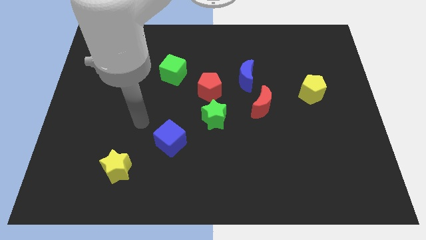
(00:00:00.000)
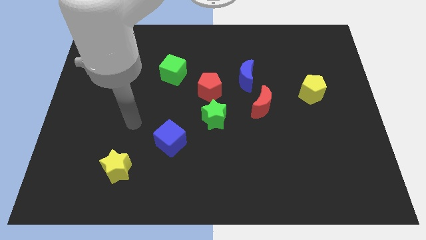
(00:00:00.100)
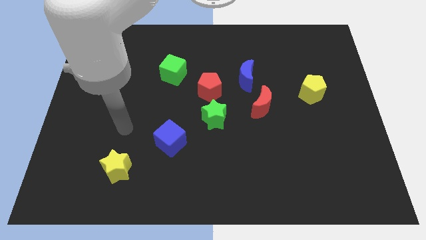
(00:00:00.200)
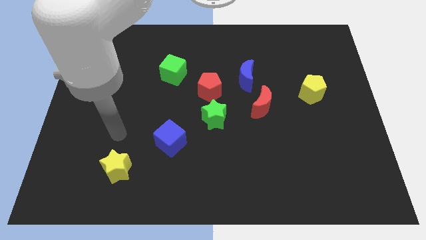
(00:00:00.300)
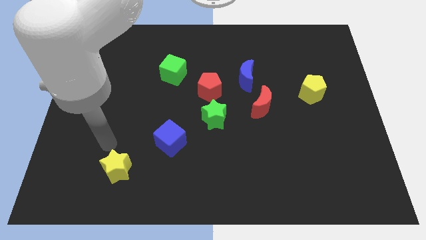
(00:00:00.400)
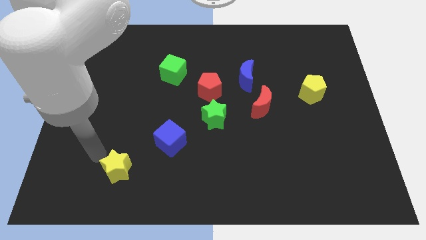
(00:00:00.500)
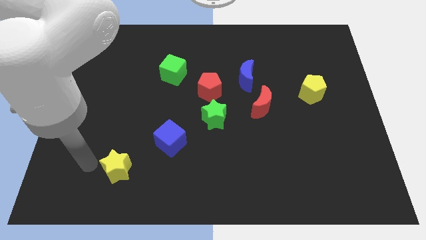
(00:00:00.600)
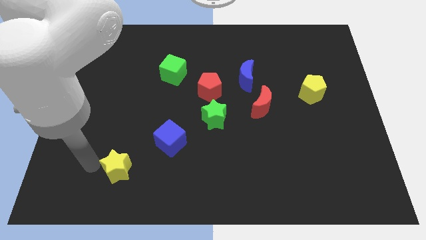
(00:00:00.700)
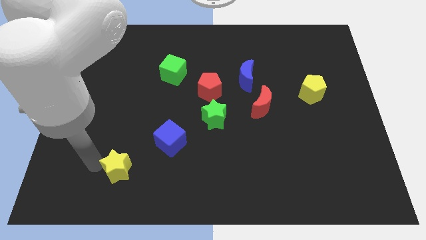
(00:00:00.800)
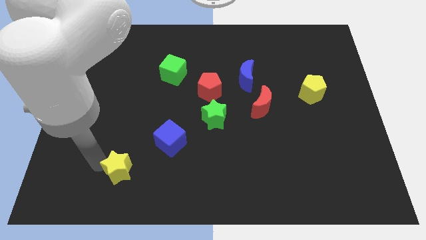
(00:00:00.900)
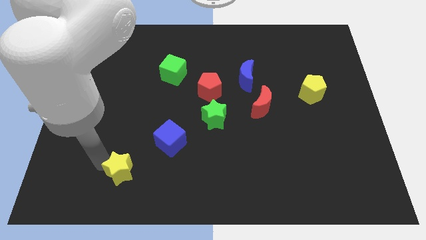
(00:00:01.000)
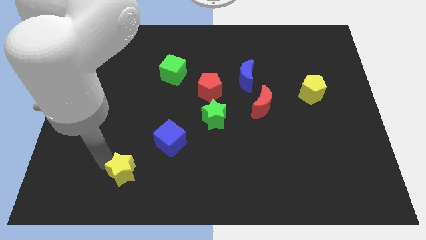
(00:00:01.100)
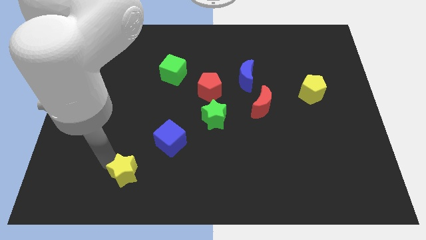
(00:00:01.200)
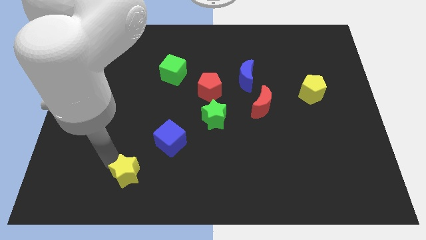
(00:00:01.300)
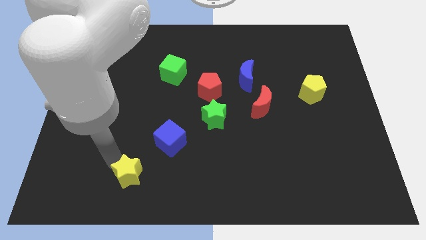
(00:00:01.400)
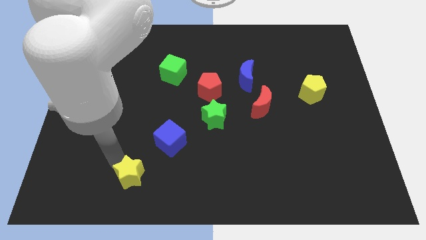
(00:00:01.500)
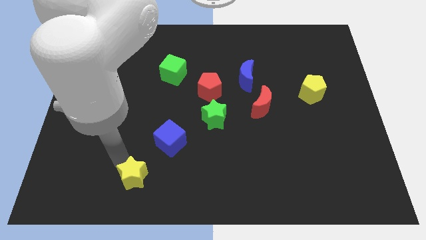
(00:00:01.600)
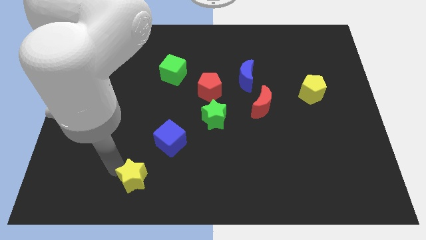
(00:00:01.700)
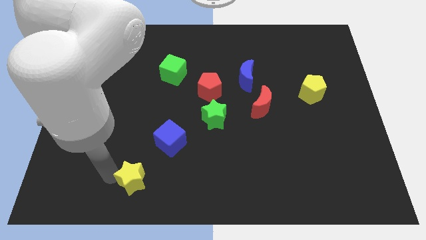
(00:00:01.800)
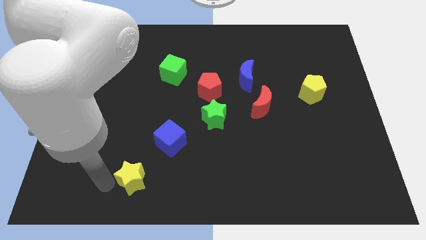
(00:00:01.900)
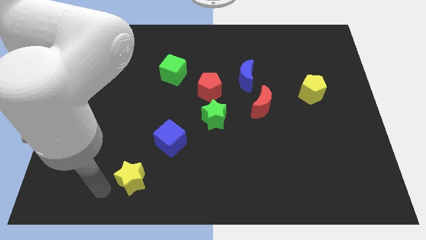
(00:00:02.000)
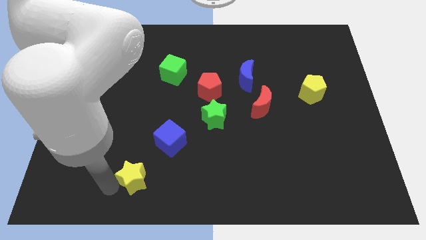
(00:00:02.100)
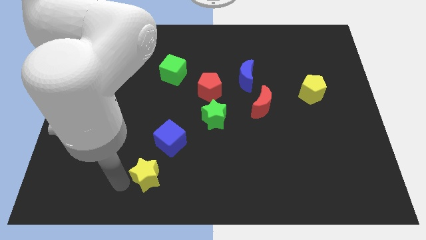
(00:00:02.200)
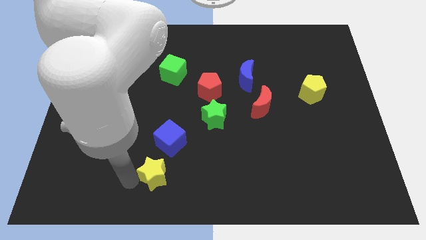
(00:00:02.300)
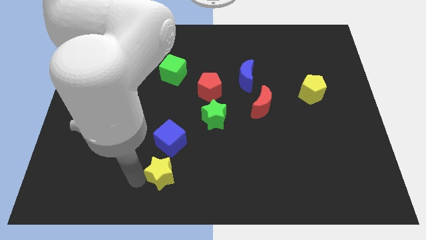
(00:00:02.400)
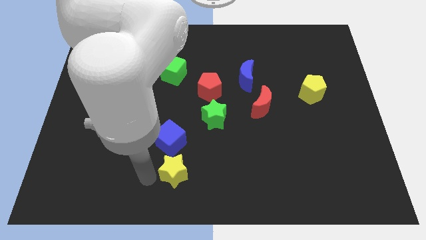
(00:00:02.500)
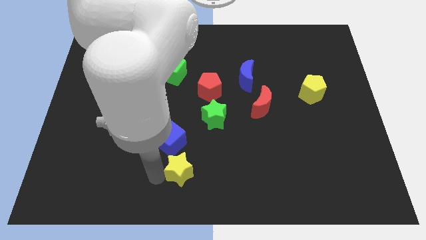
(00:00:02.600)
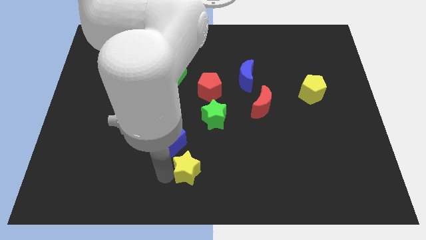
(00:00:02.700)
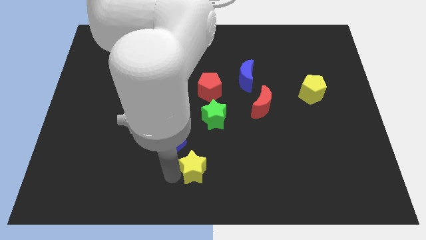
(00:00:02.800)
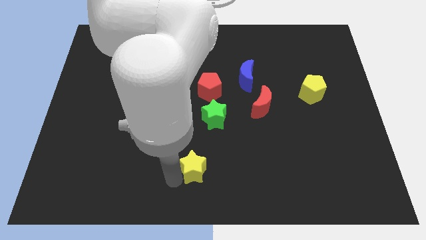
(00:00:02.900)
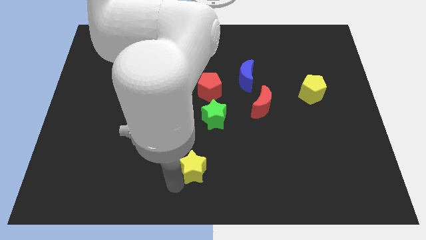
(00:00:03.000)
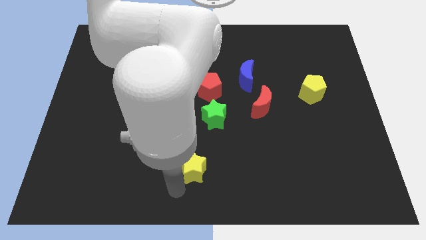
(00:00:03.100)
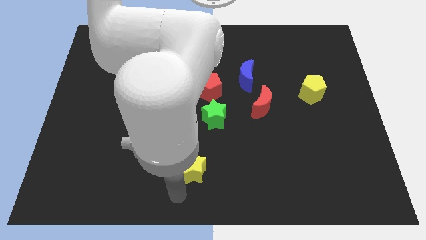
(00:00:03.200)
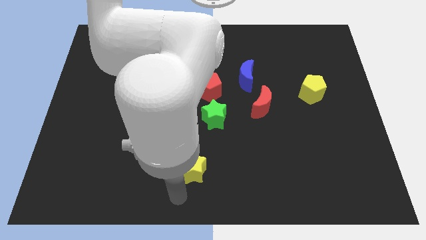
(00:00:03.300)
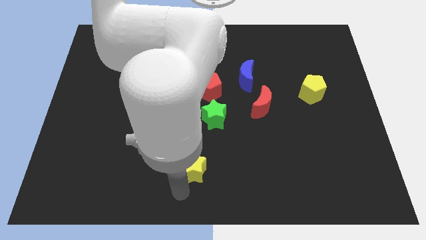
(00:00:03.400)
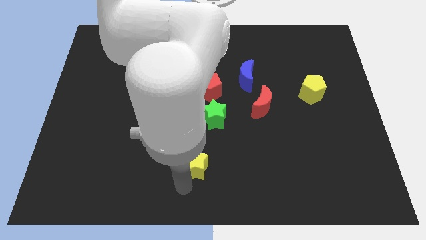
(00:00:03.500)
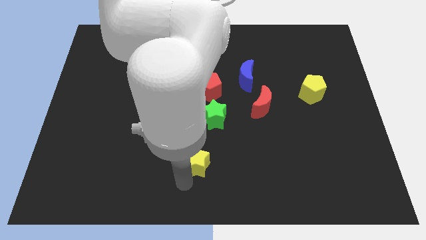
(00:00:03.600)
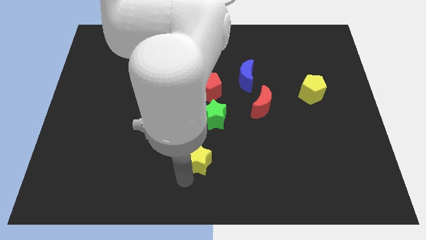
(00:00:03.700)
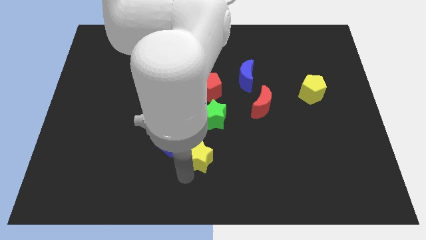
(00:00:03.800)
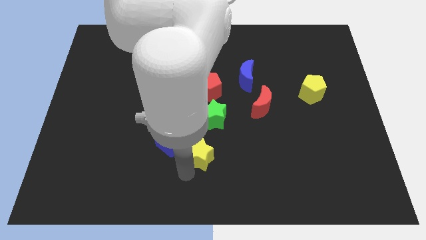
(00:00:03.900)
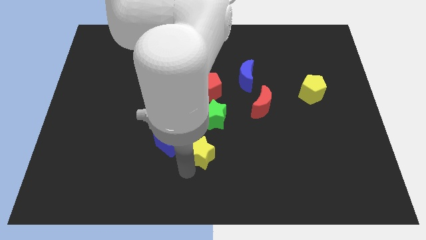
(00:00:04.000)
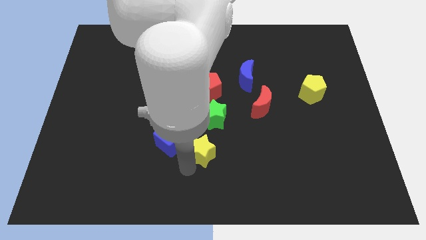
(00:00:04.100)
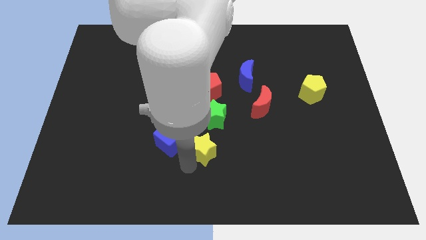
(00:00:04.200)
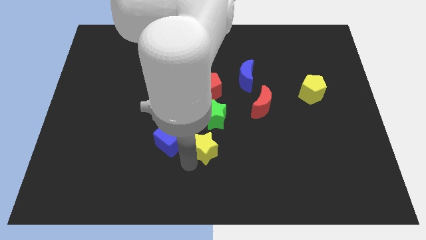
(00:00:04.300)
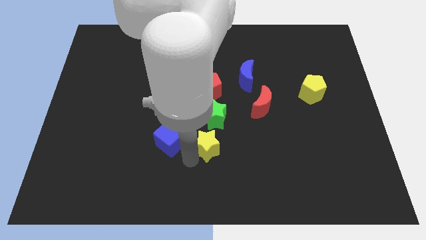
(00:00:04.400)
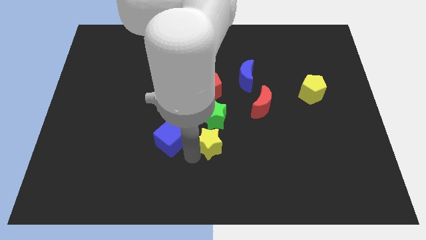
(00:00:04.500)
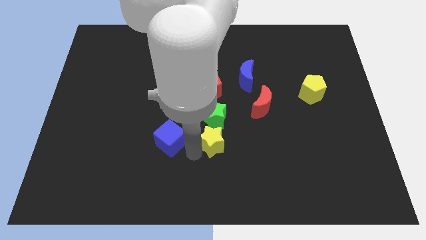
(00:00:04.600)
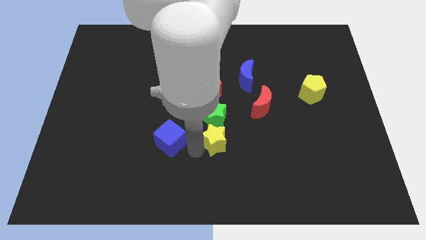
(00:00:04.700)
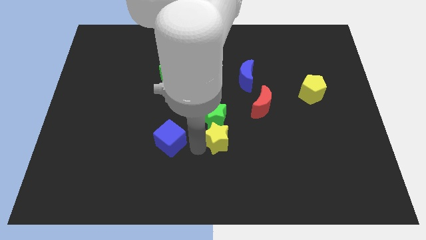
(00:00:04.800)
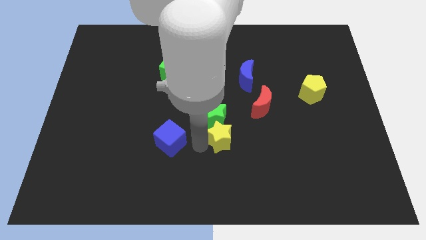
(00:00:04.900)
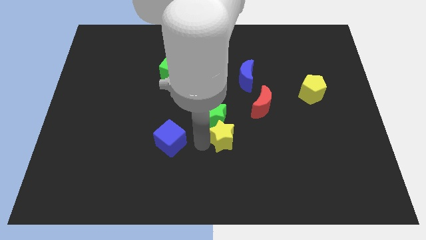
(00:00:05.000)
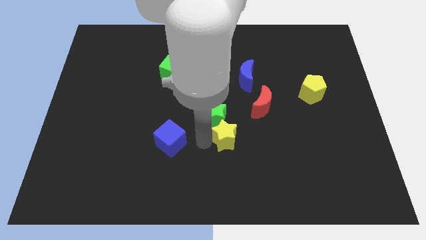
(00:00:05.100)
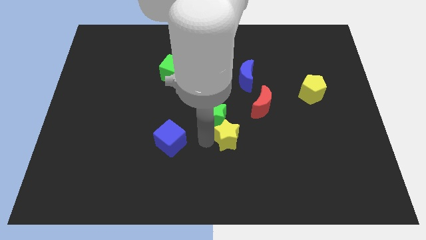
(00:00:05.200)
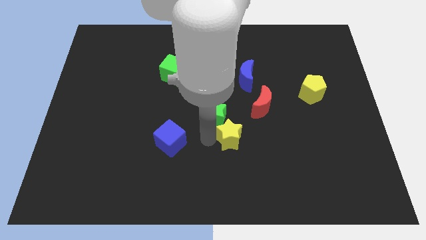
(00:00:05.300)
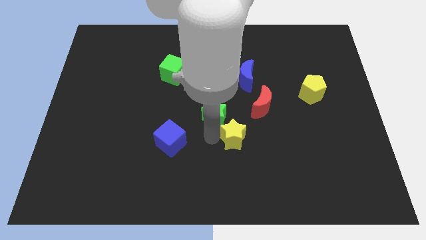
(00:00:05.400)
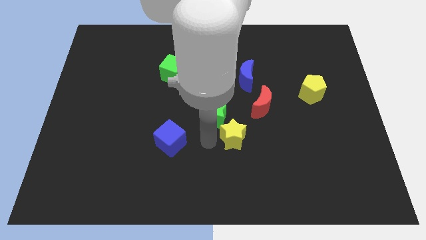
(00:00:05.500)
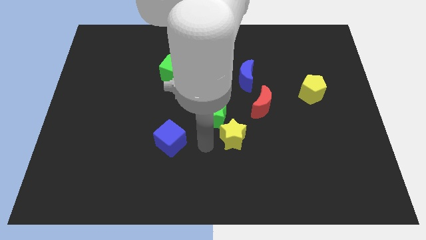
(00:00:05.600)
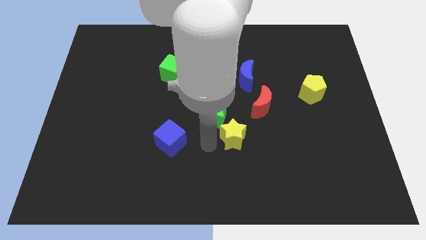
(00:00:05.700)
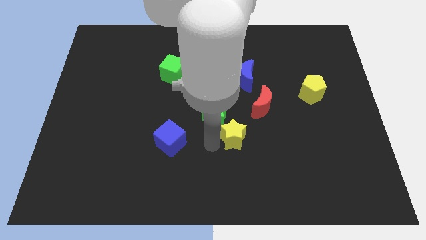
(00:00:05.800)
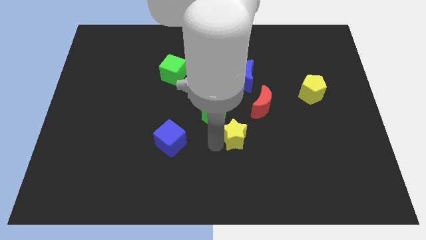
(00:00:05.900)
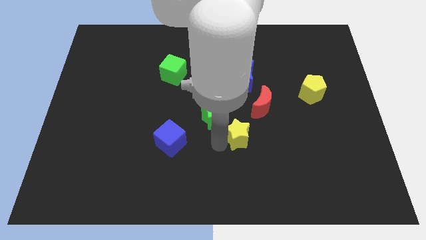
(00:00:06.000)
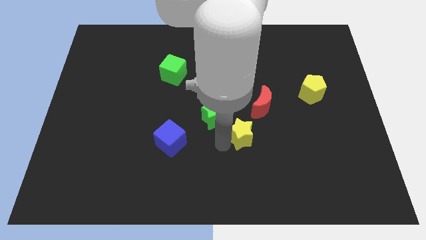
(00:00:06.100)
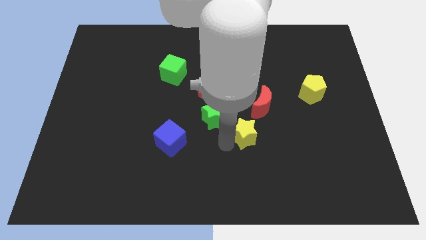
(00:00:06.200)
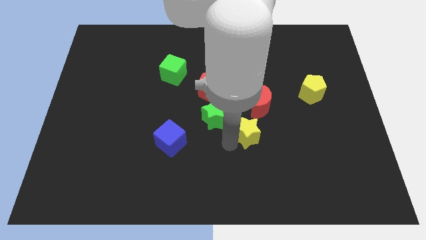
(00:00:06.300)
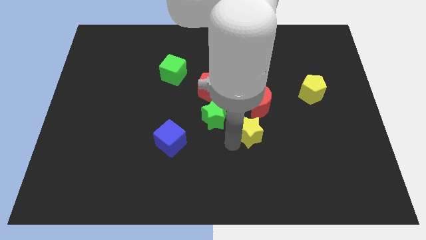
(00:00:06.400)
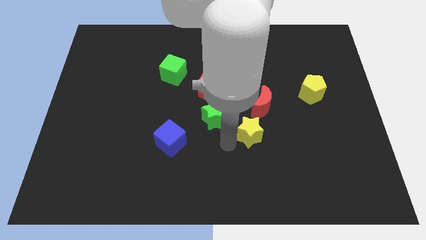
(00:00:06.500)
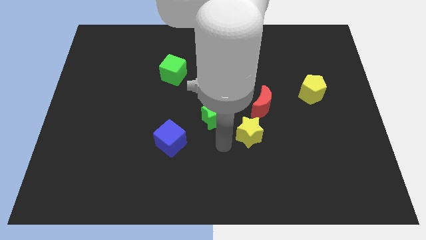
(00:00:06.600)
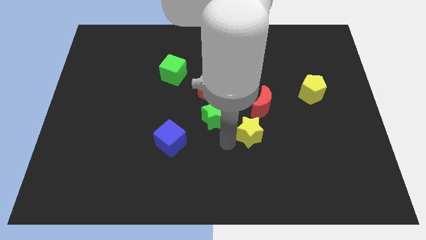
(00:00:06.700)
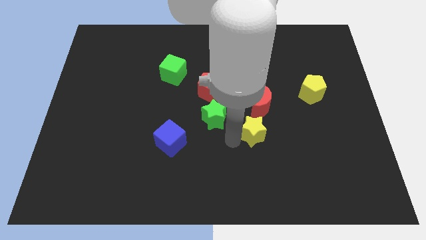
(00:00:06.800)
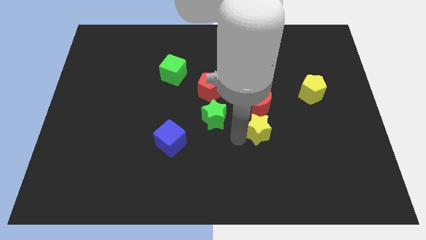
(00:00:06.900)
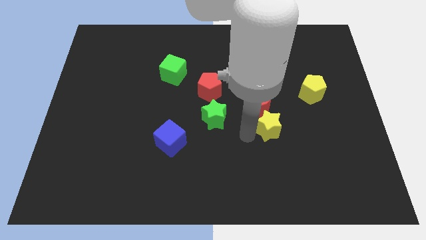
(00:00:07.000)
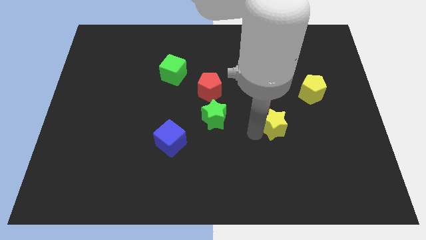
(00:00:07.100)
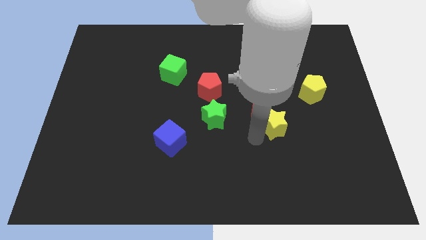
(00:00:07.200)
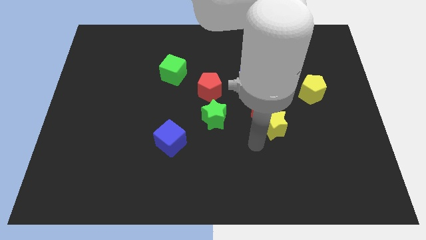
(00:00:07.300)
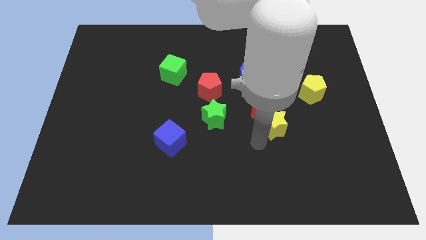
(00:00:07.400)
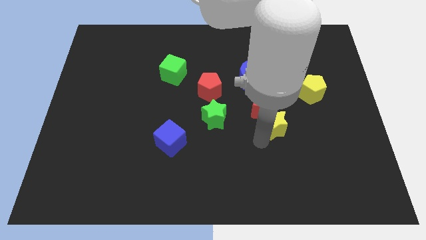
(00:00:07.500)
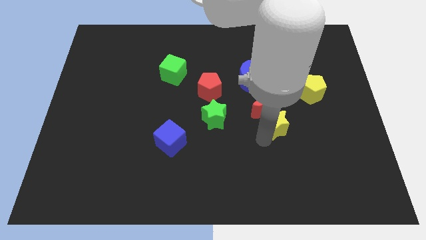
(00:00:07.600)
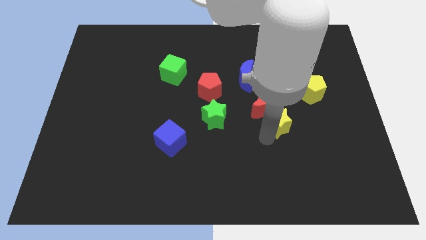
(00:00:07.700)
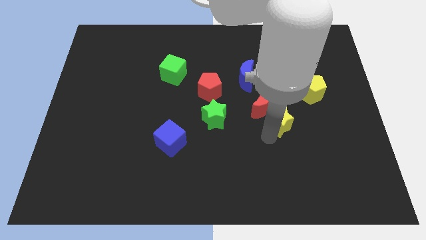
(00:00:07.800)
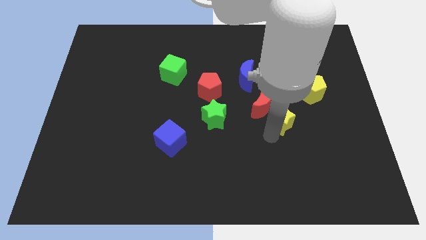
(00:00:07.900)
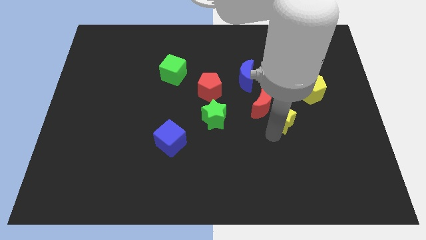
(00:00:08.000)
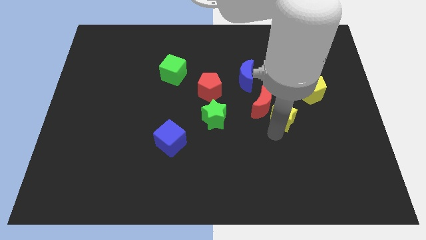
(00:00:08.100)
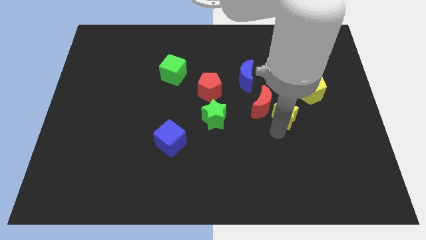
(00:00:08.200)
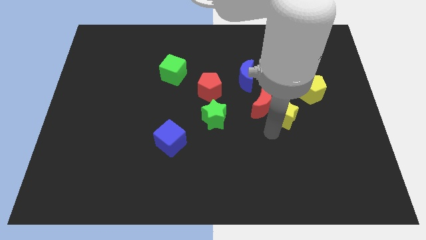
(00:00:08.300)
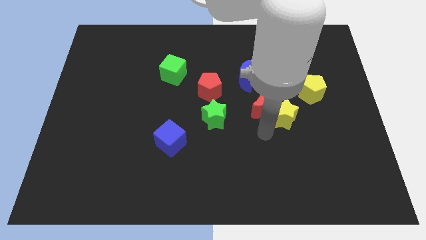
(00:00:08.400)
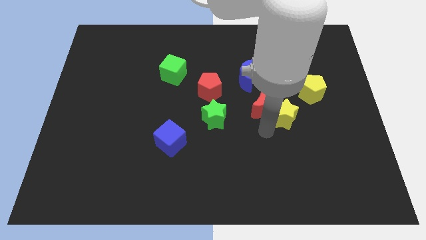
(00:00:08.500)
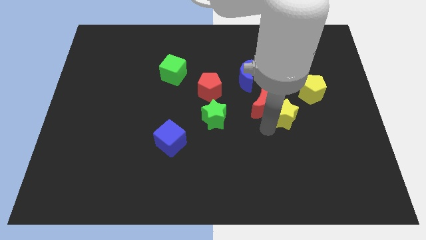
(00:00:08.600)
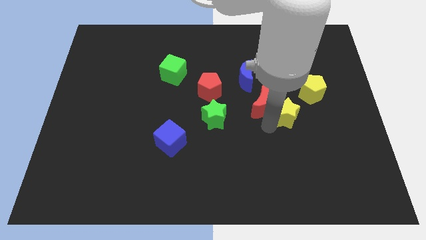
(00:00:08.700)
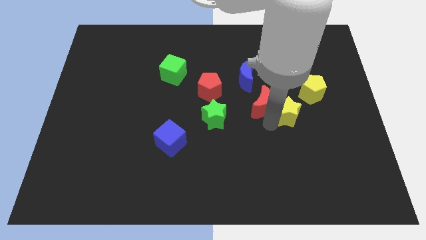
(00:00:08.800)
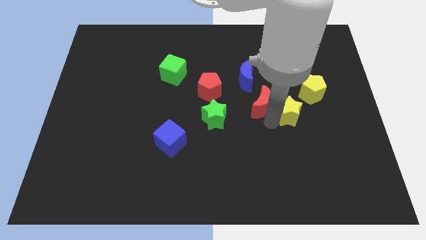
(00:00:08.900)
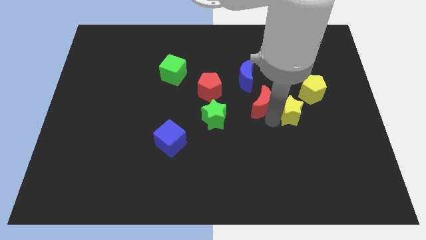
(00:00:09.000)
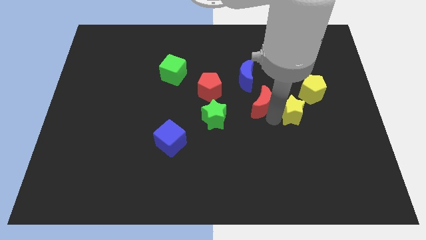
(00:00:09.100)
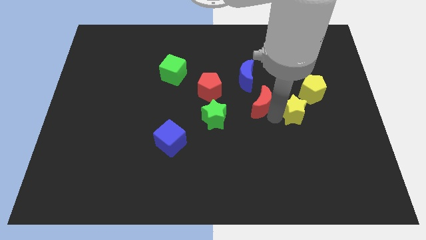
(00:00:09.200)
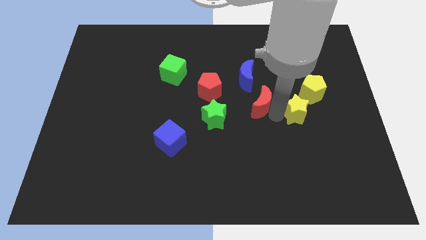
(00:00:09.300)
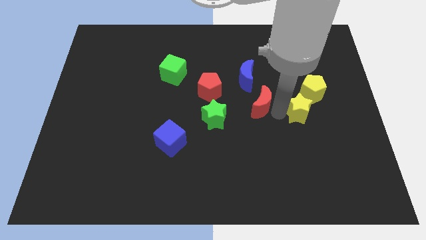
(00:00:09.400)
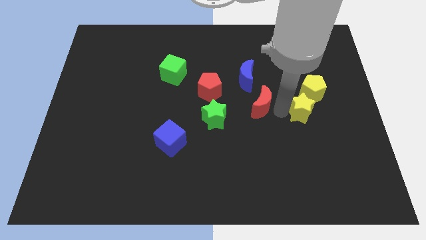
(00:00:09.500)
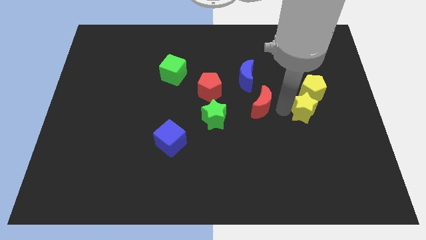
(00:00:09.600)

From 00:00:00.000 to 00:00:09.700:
put the yellow star towards the yellow pentagon
